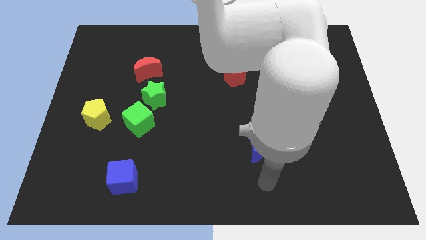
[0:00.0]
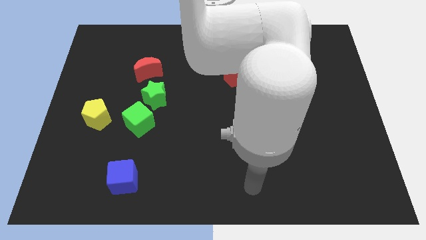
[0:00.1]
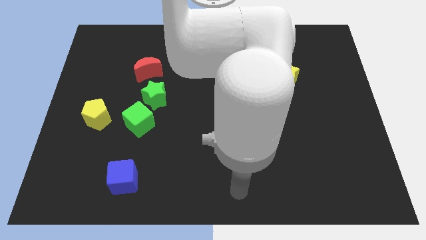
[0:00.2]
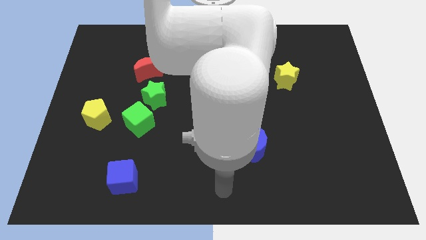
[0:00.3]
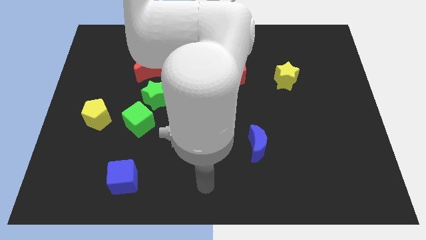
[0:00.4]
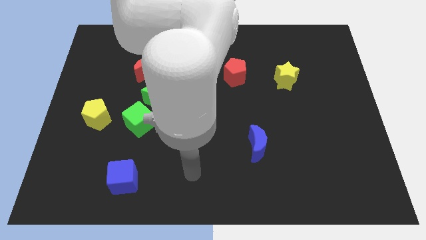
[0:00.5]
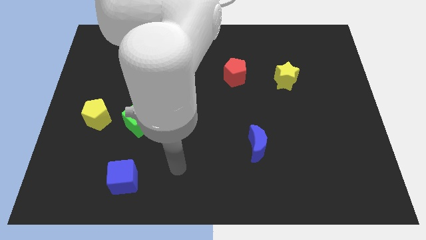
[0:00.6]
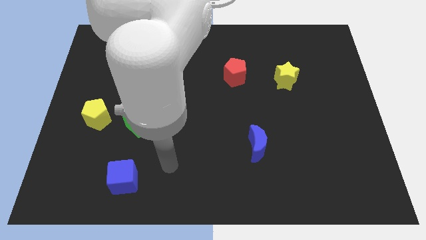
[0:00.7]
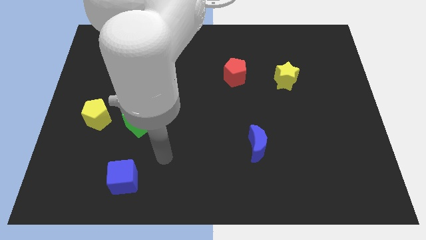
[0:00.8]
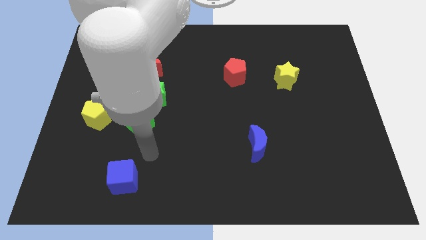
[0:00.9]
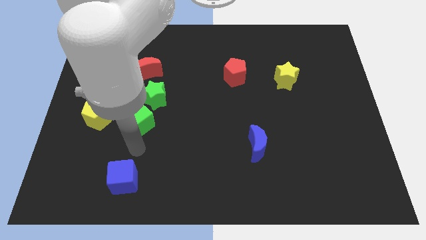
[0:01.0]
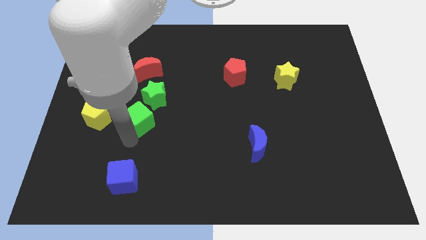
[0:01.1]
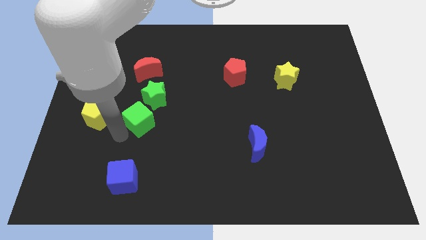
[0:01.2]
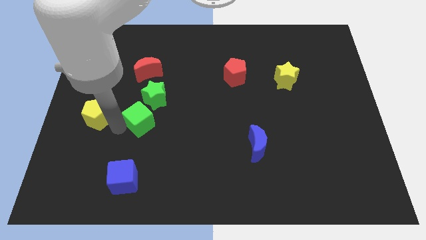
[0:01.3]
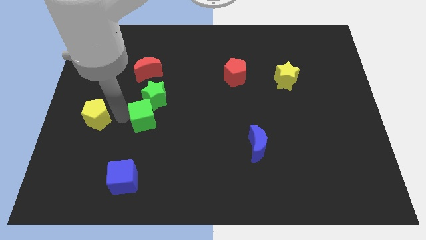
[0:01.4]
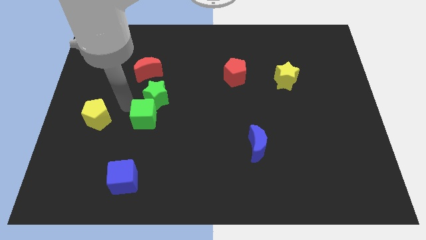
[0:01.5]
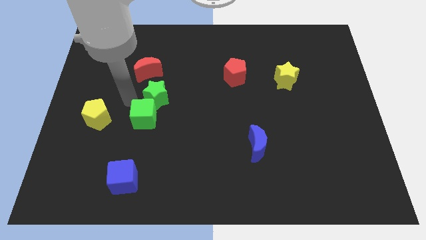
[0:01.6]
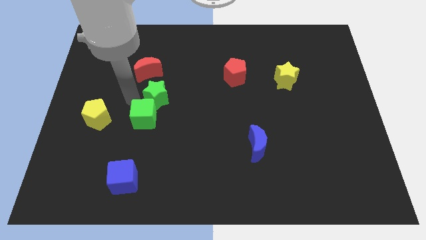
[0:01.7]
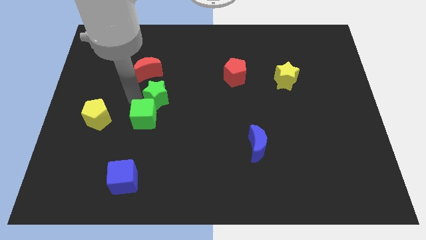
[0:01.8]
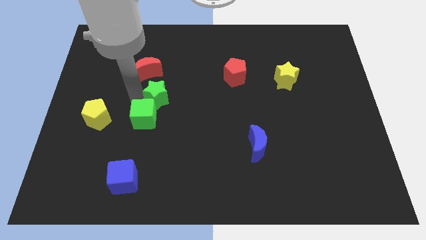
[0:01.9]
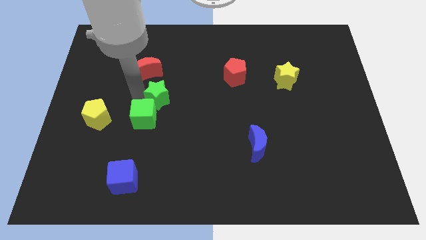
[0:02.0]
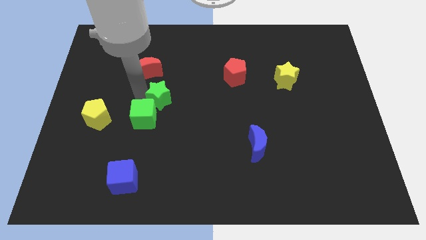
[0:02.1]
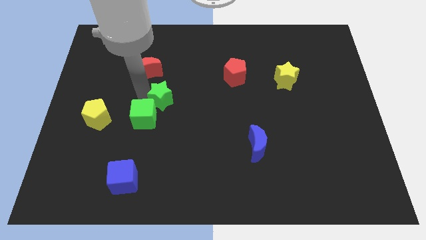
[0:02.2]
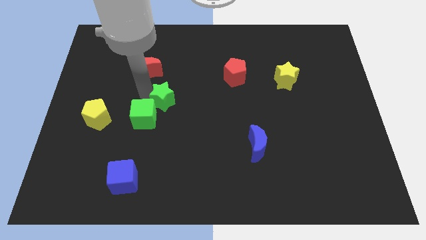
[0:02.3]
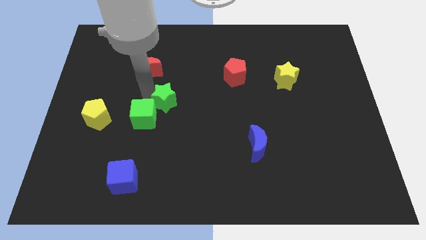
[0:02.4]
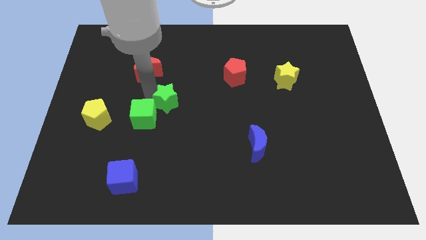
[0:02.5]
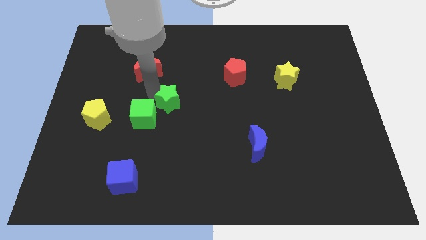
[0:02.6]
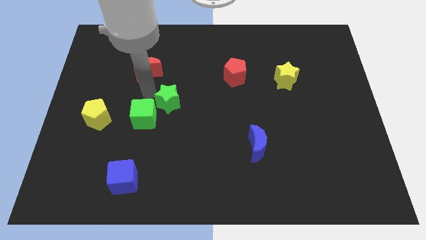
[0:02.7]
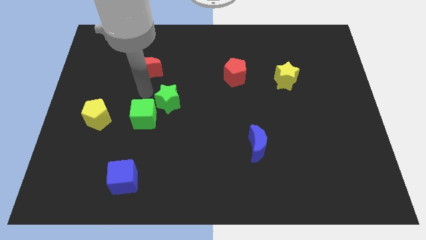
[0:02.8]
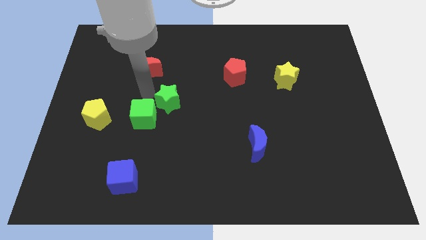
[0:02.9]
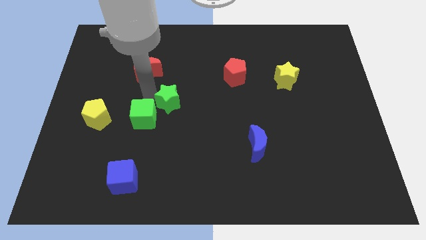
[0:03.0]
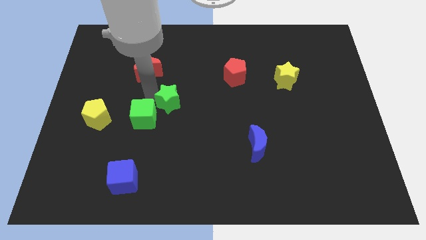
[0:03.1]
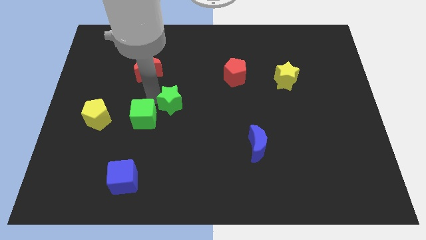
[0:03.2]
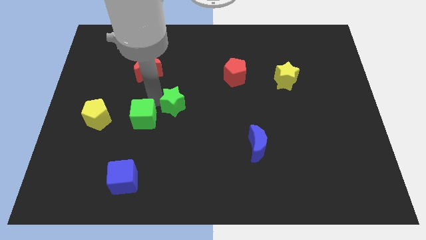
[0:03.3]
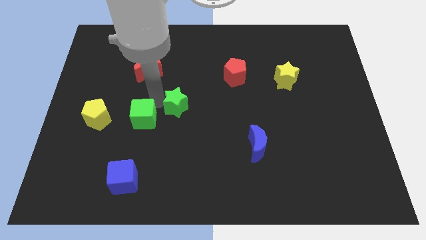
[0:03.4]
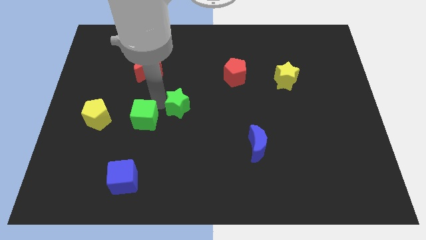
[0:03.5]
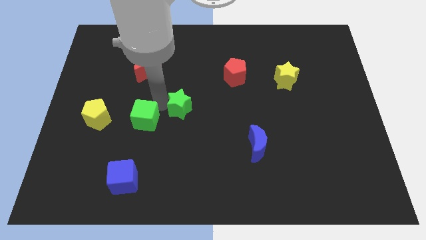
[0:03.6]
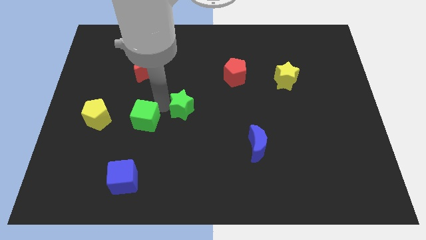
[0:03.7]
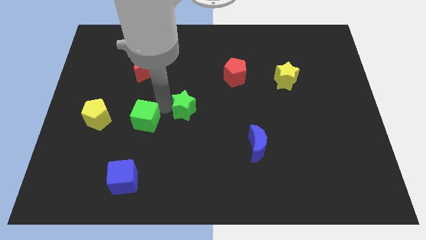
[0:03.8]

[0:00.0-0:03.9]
move the green star away from the green cube and red moon

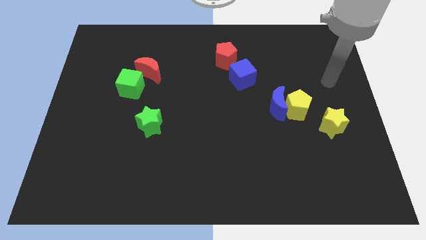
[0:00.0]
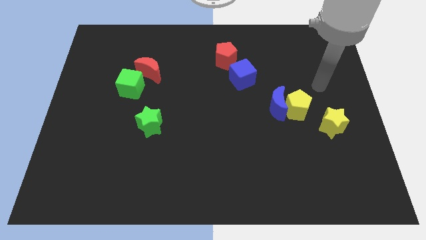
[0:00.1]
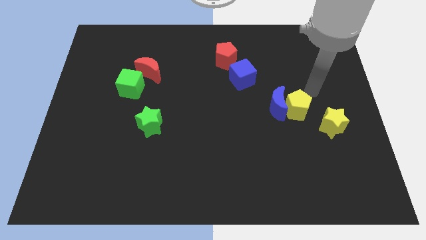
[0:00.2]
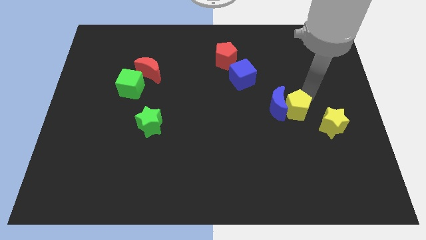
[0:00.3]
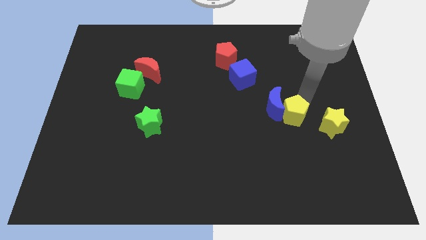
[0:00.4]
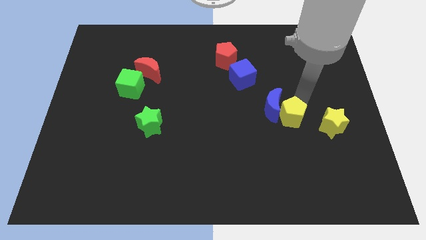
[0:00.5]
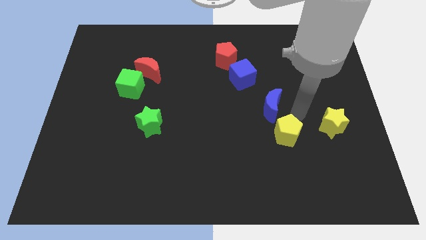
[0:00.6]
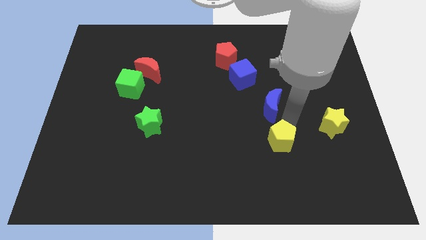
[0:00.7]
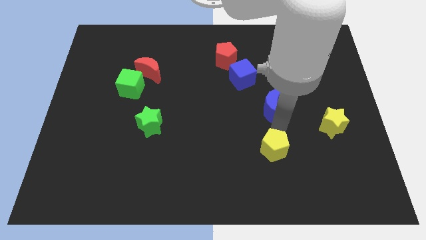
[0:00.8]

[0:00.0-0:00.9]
move the blue moon away from the yellow pentagon

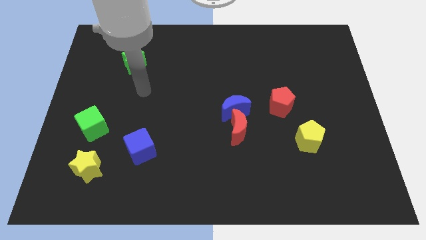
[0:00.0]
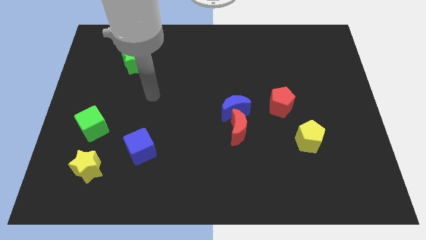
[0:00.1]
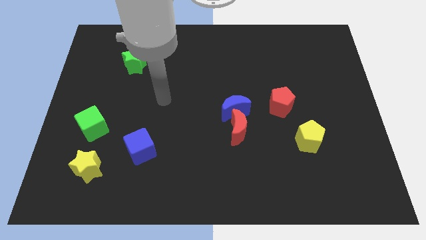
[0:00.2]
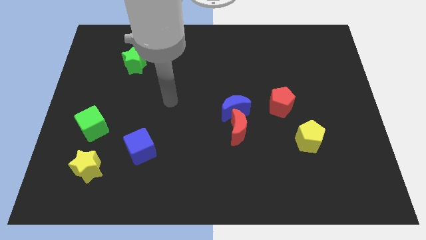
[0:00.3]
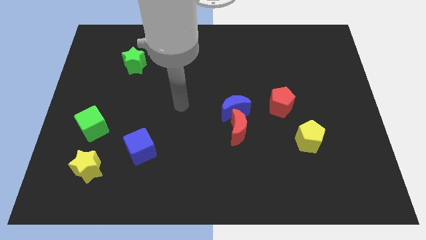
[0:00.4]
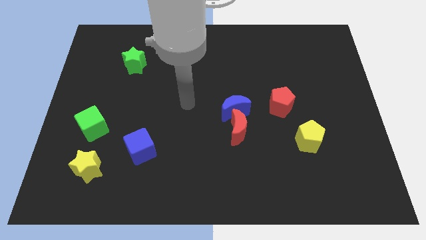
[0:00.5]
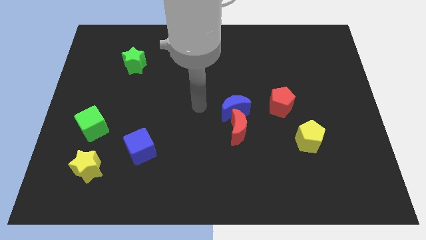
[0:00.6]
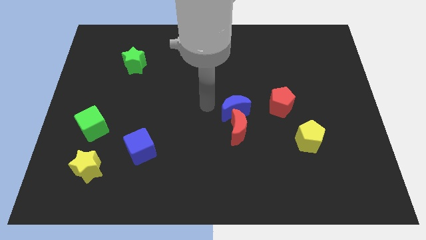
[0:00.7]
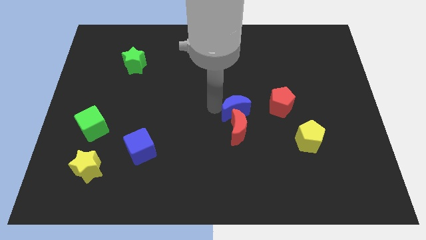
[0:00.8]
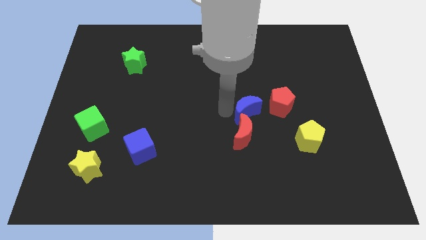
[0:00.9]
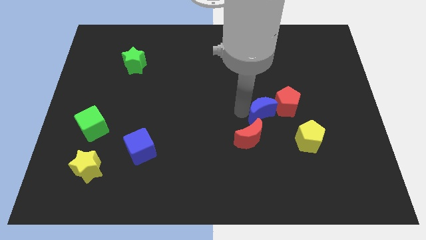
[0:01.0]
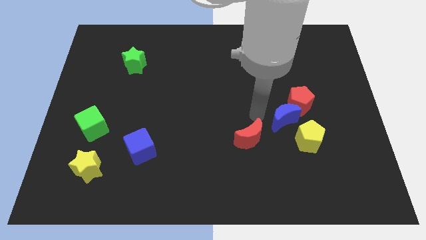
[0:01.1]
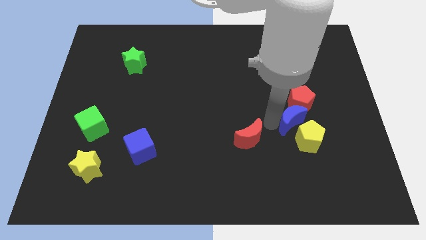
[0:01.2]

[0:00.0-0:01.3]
separate the red moon from the blue moon

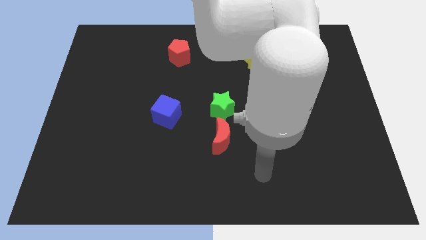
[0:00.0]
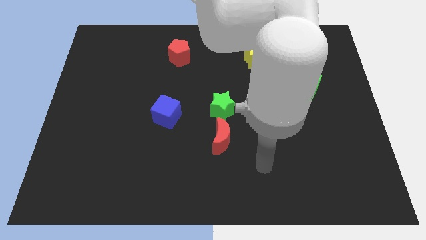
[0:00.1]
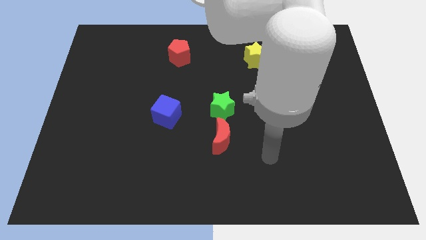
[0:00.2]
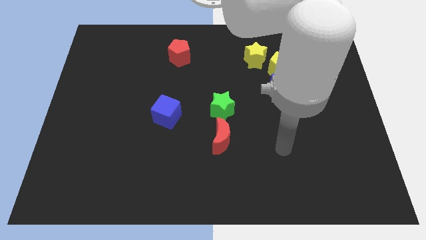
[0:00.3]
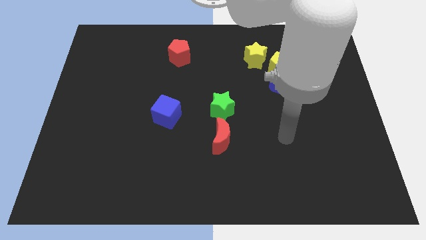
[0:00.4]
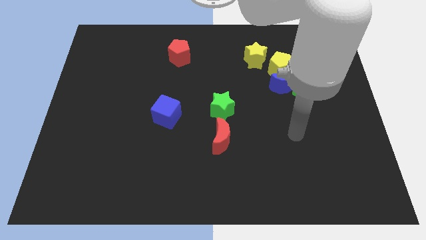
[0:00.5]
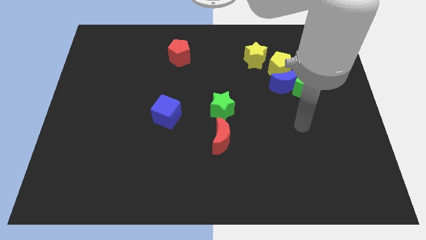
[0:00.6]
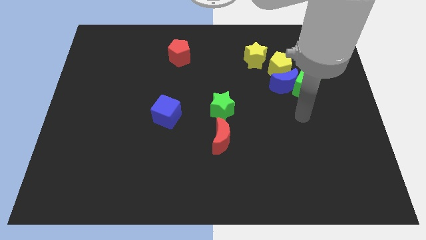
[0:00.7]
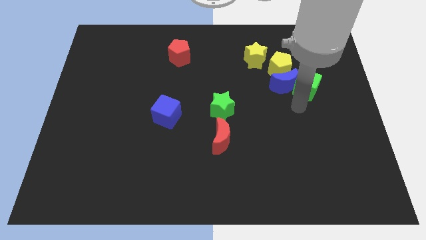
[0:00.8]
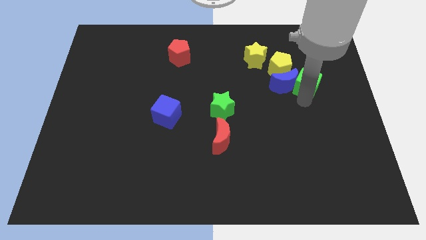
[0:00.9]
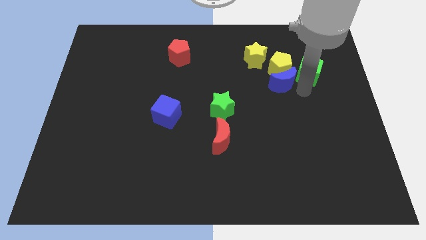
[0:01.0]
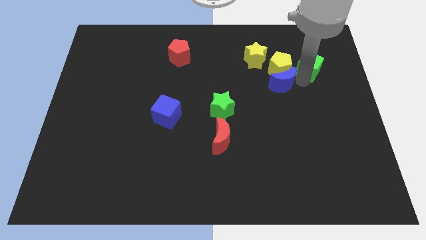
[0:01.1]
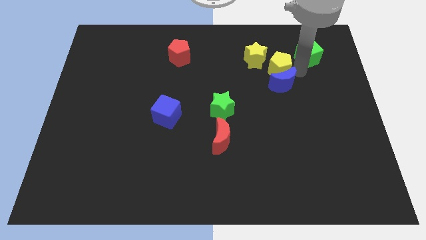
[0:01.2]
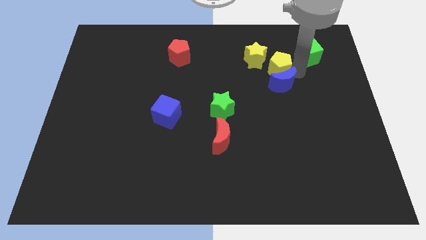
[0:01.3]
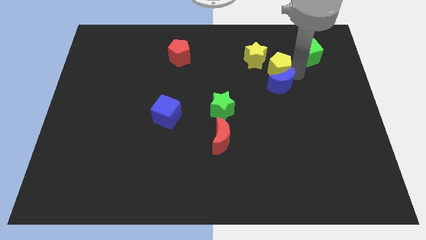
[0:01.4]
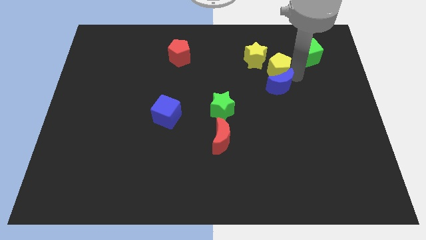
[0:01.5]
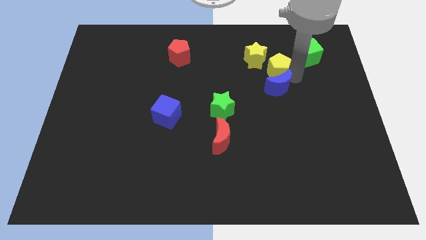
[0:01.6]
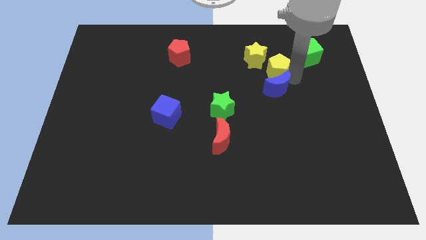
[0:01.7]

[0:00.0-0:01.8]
move the blue moon away from the green cube and yellow pentagon

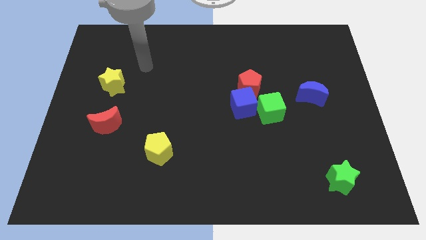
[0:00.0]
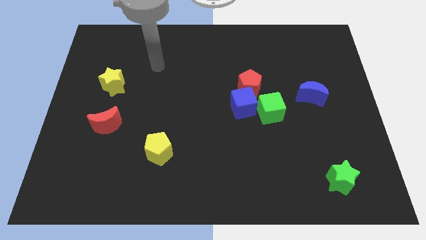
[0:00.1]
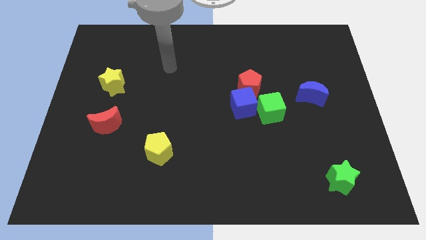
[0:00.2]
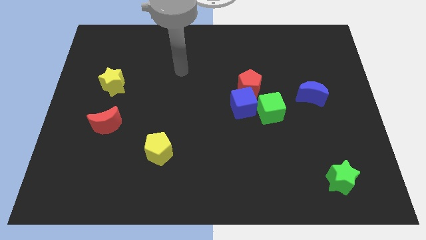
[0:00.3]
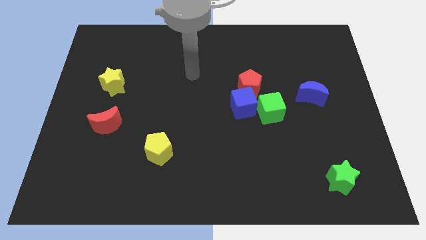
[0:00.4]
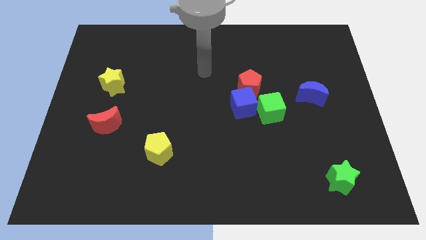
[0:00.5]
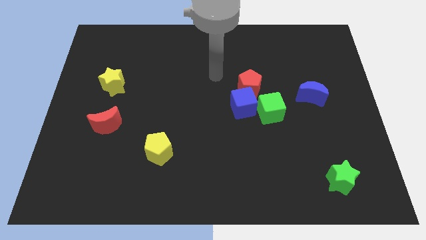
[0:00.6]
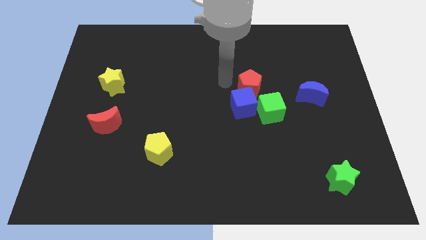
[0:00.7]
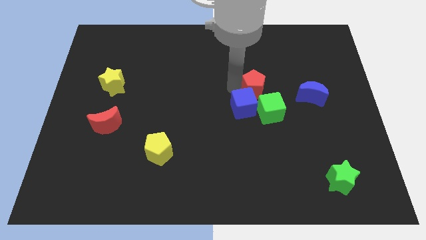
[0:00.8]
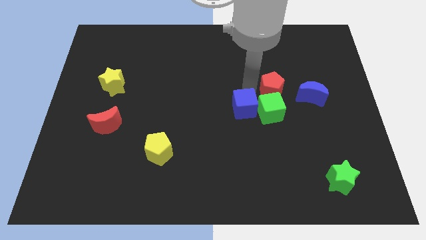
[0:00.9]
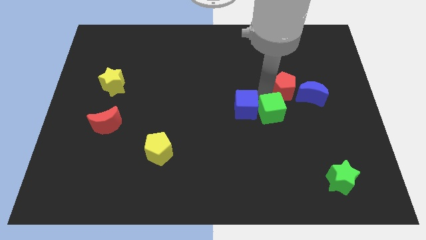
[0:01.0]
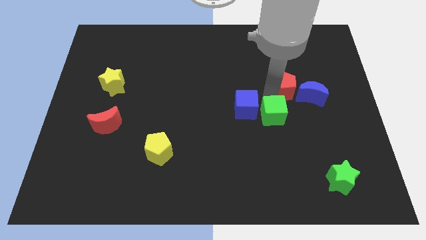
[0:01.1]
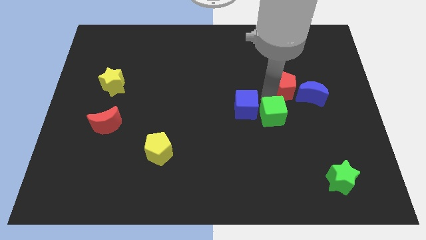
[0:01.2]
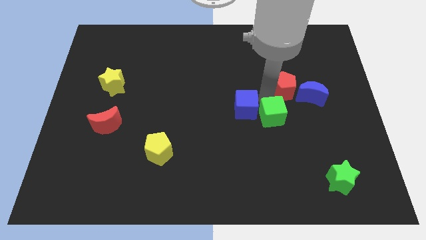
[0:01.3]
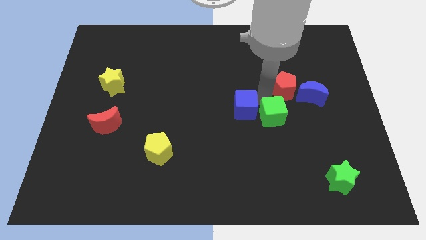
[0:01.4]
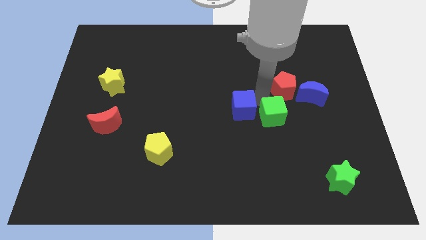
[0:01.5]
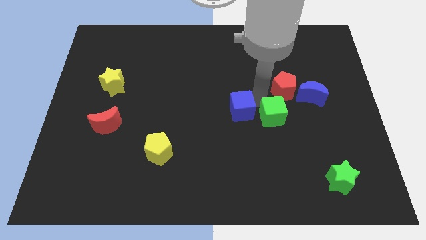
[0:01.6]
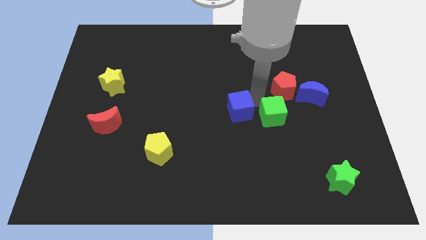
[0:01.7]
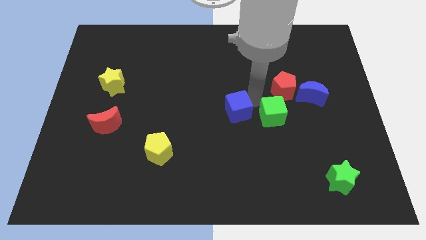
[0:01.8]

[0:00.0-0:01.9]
pull the blue cube apart from the red pentagon and green cube
